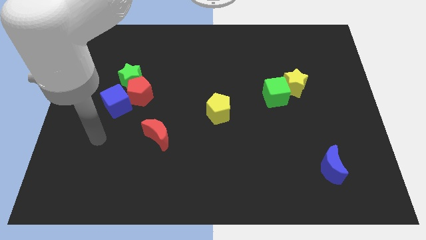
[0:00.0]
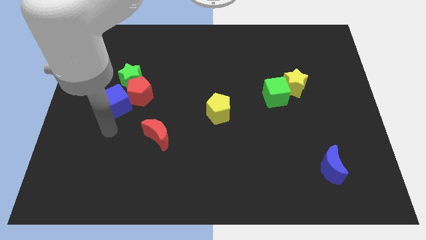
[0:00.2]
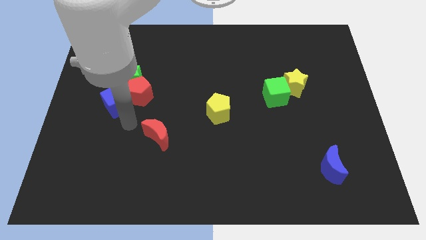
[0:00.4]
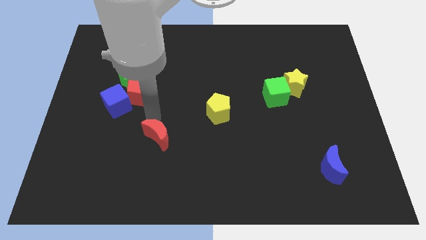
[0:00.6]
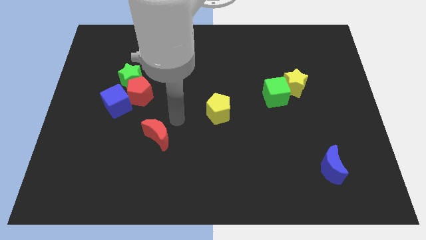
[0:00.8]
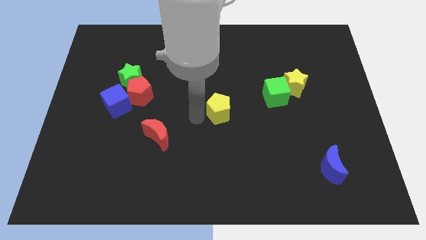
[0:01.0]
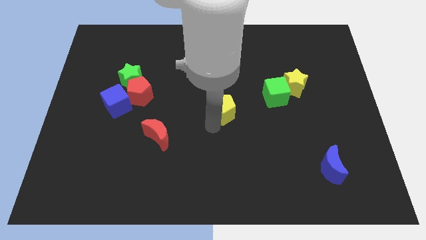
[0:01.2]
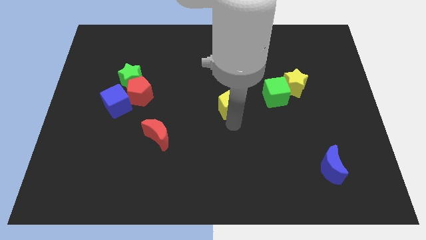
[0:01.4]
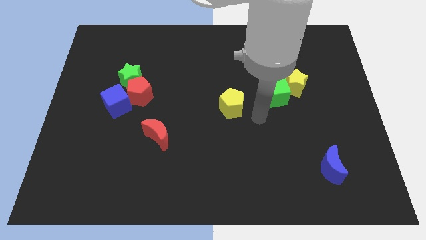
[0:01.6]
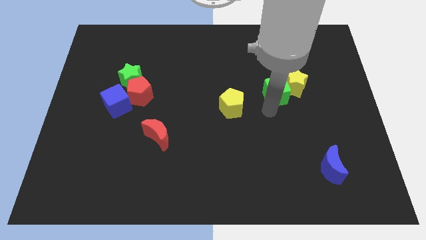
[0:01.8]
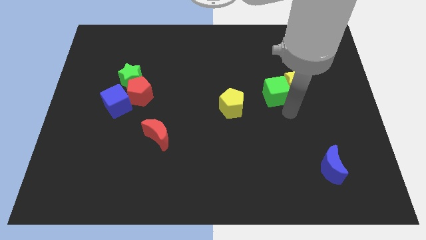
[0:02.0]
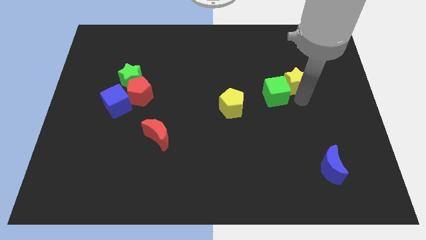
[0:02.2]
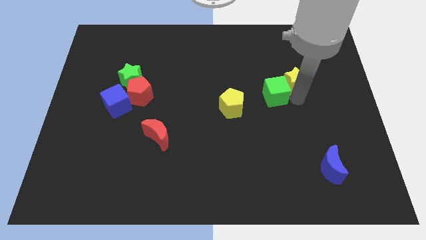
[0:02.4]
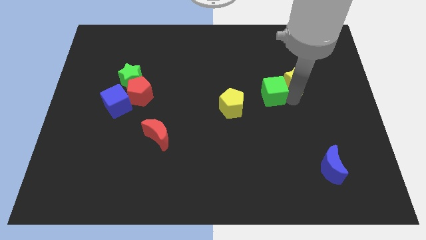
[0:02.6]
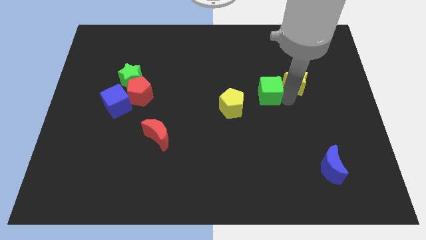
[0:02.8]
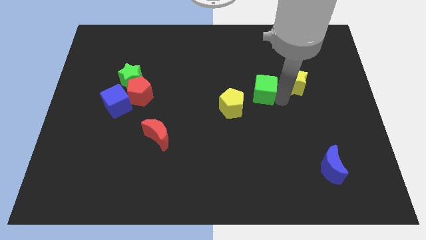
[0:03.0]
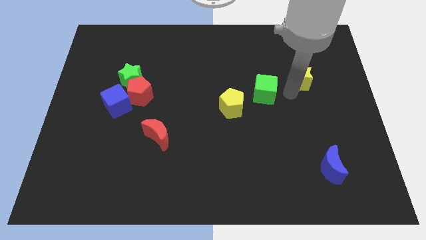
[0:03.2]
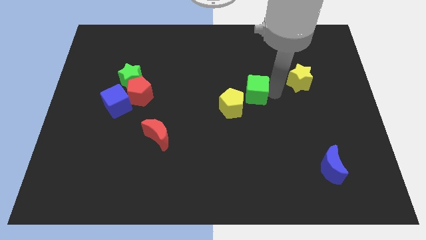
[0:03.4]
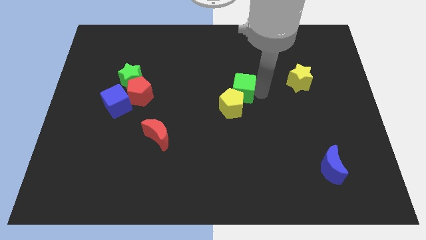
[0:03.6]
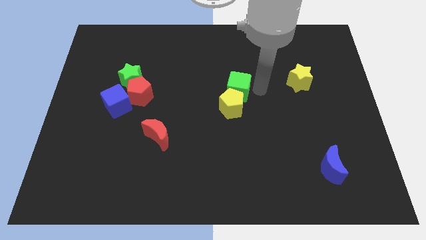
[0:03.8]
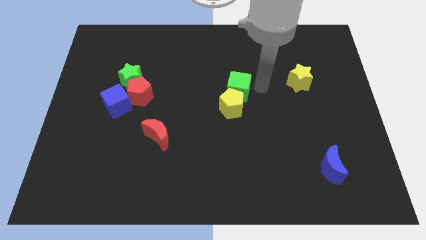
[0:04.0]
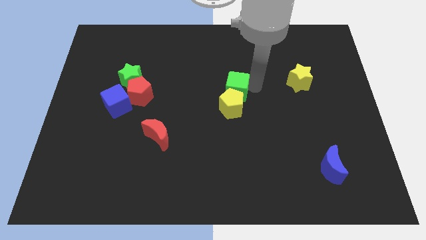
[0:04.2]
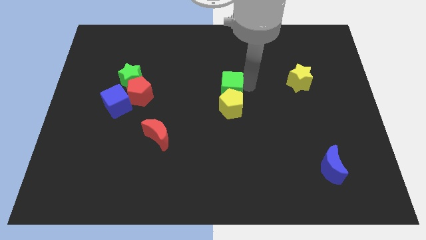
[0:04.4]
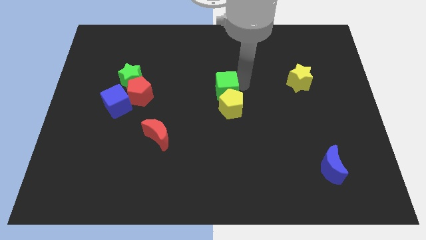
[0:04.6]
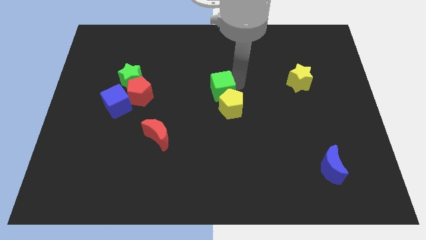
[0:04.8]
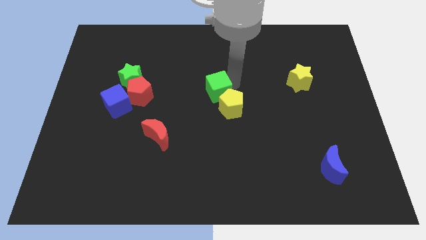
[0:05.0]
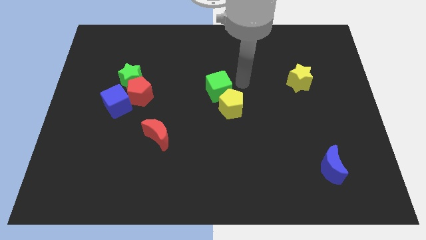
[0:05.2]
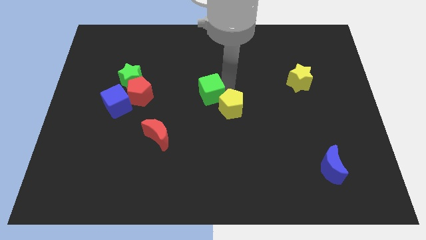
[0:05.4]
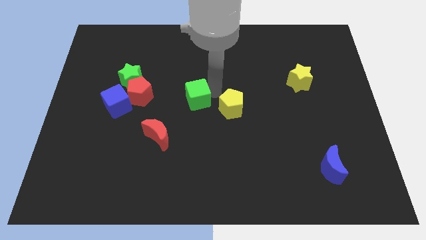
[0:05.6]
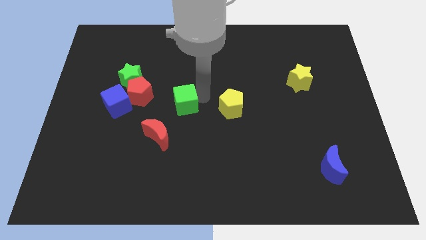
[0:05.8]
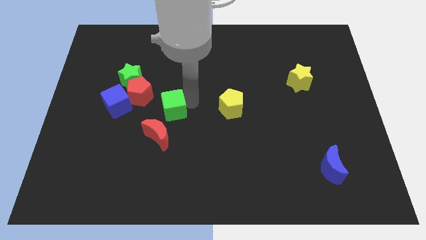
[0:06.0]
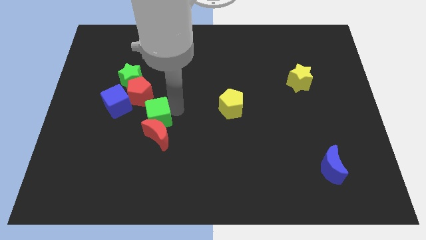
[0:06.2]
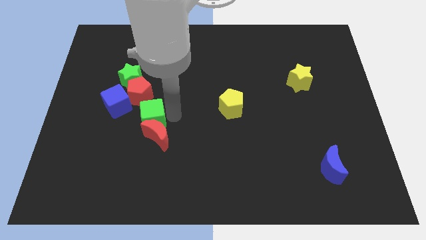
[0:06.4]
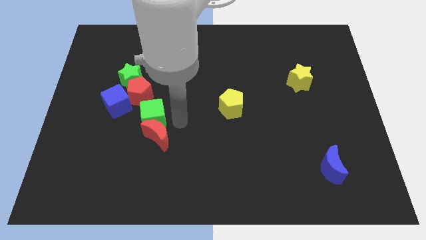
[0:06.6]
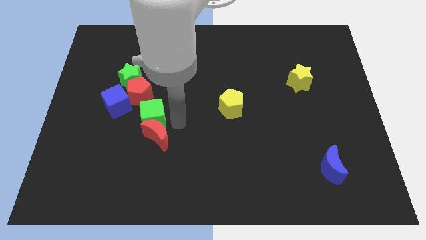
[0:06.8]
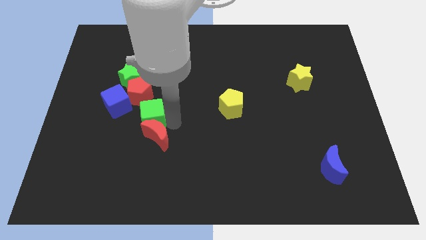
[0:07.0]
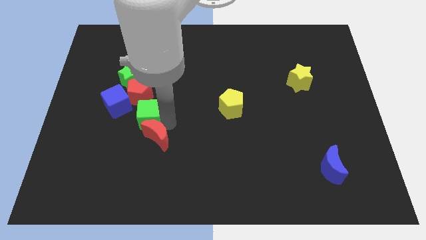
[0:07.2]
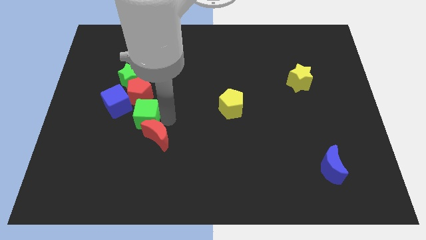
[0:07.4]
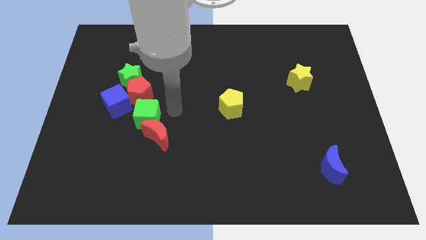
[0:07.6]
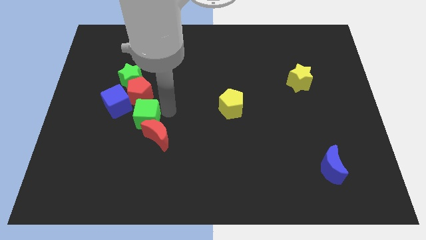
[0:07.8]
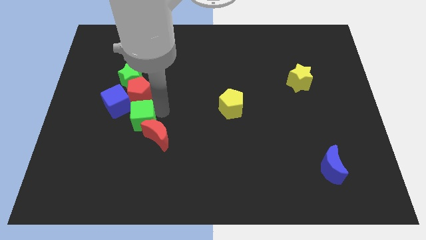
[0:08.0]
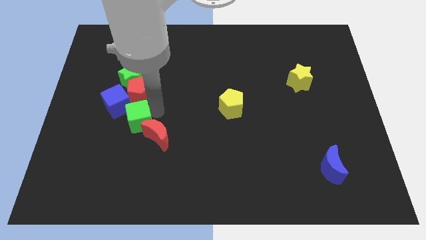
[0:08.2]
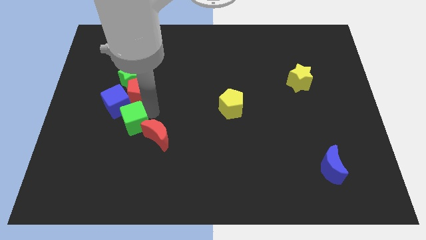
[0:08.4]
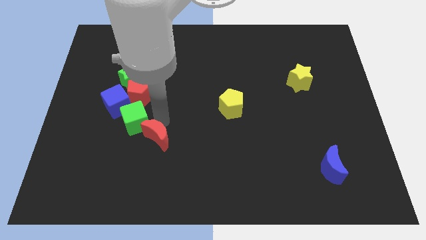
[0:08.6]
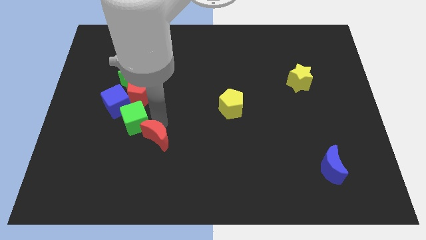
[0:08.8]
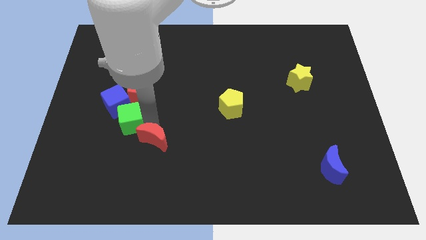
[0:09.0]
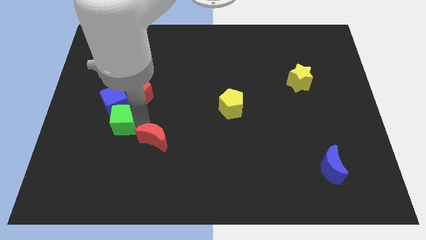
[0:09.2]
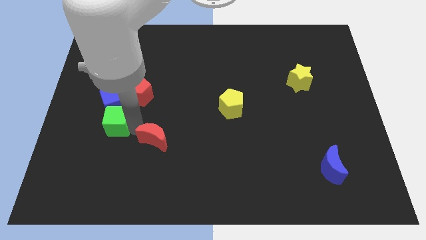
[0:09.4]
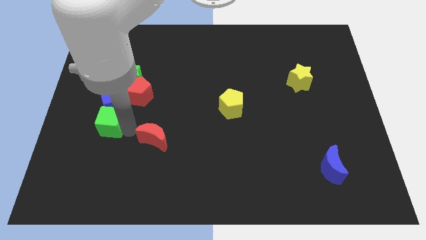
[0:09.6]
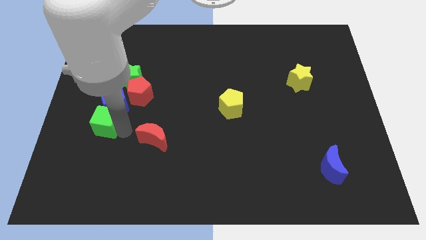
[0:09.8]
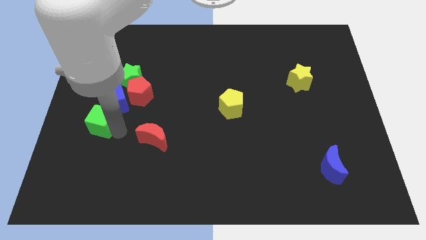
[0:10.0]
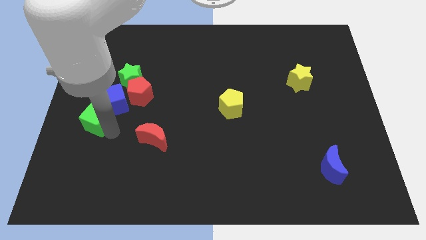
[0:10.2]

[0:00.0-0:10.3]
push the green cube to the left side of the board

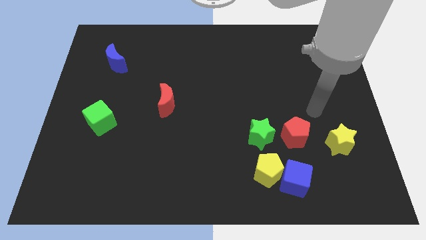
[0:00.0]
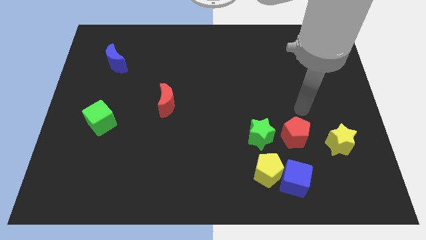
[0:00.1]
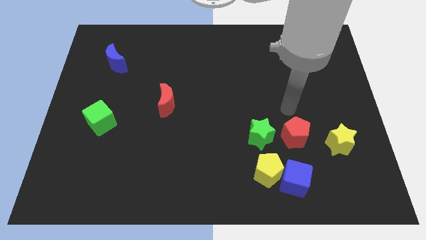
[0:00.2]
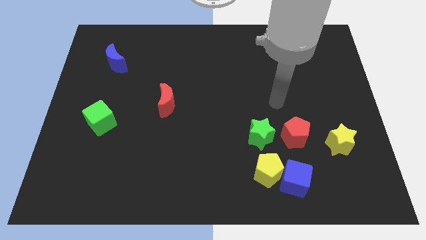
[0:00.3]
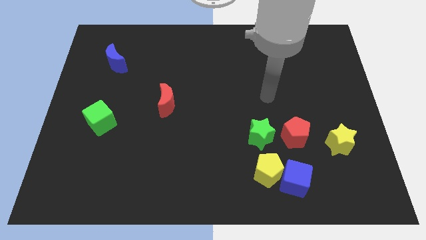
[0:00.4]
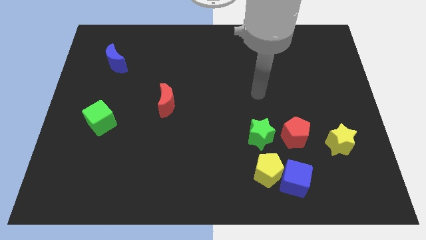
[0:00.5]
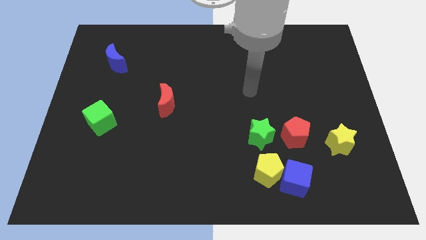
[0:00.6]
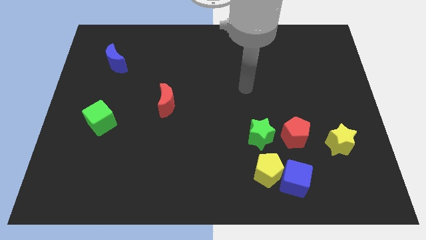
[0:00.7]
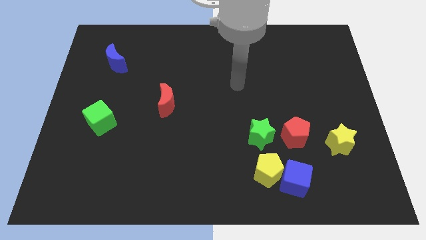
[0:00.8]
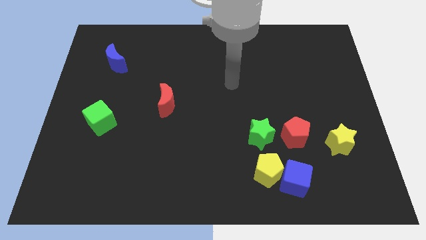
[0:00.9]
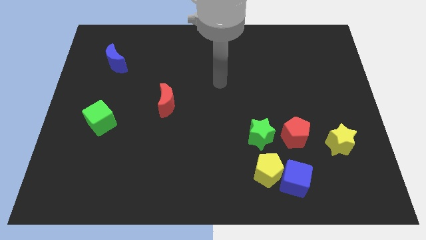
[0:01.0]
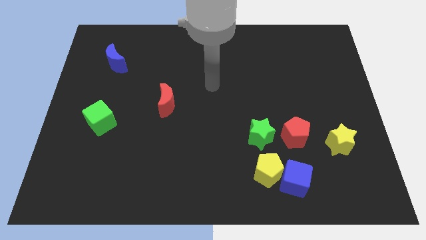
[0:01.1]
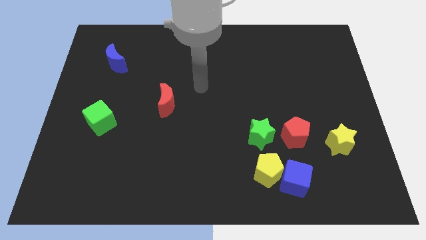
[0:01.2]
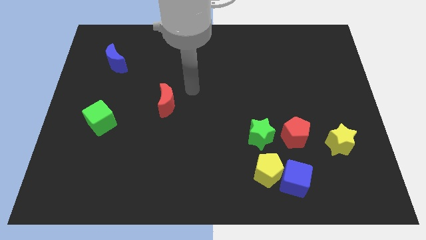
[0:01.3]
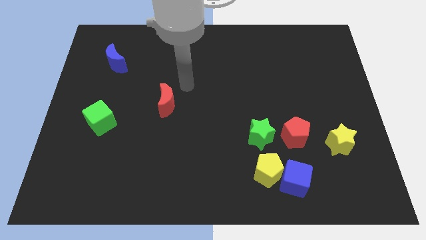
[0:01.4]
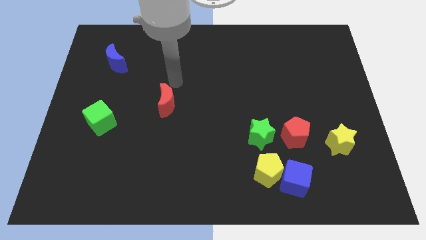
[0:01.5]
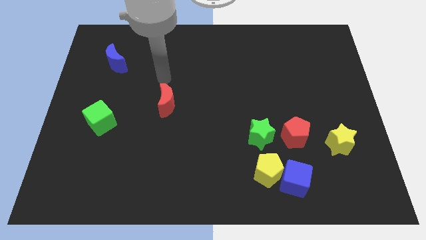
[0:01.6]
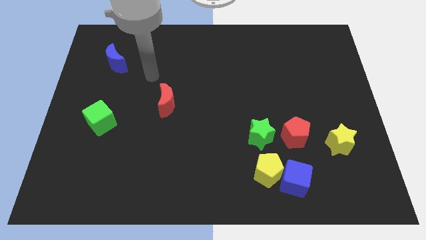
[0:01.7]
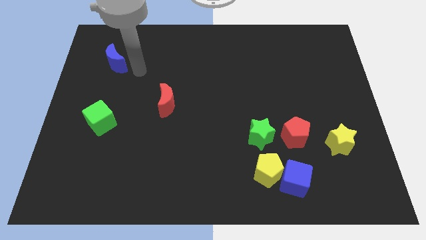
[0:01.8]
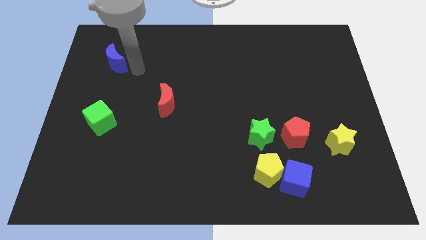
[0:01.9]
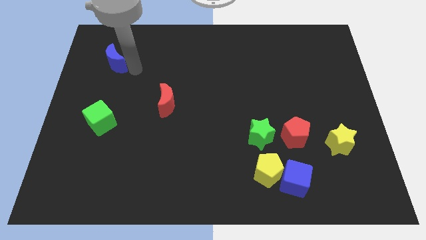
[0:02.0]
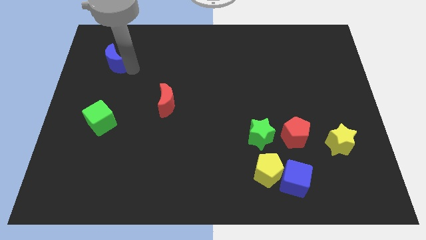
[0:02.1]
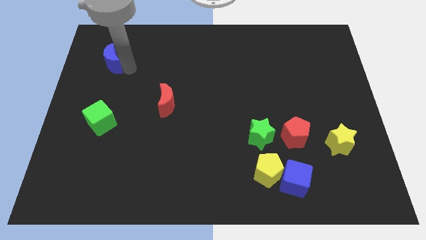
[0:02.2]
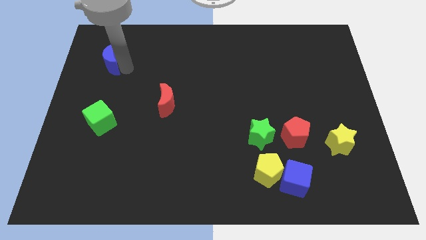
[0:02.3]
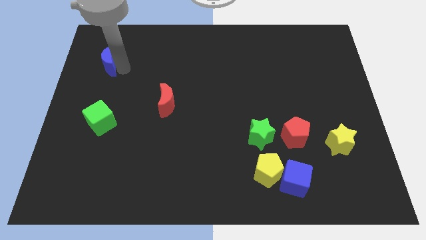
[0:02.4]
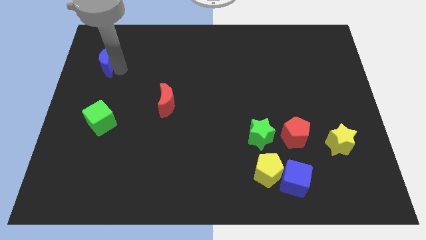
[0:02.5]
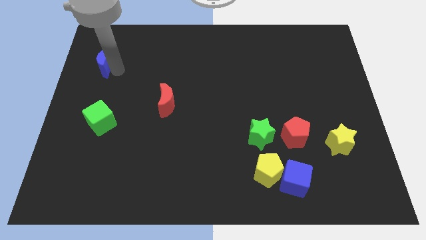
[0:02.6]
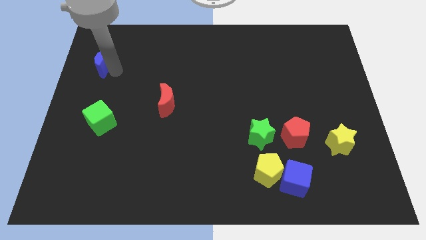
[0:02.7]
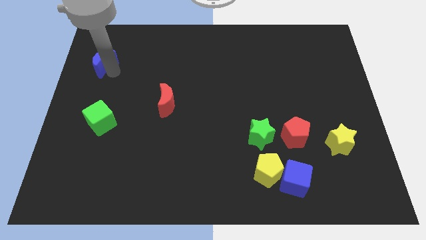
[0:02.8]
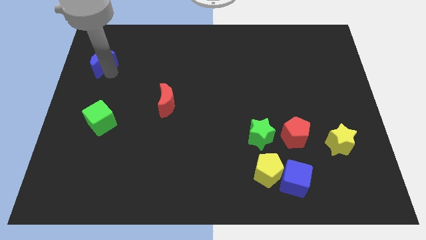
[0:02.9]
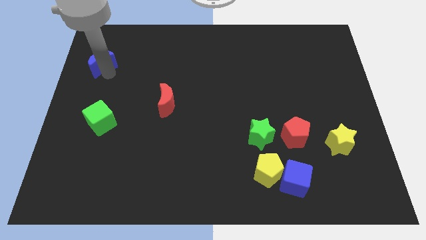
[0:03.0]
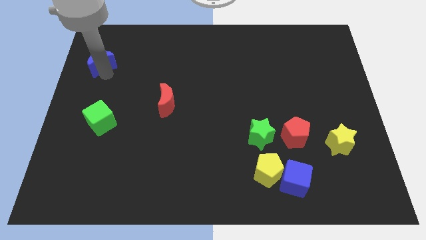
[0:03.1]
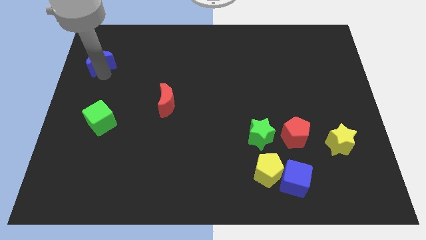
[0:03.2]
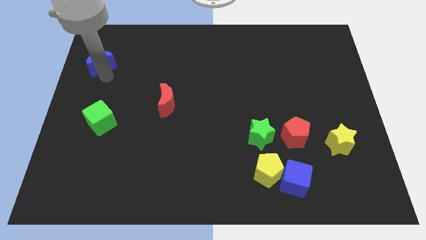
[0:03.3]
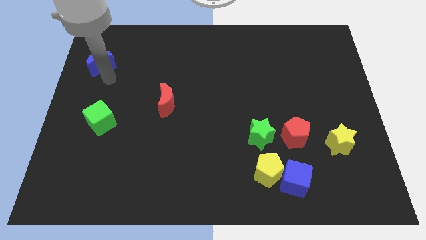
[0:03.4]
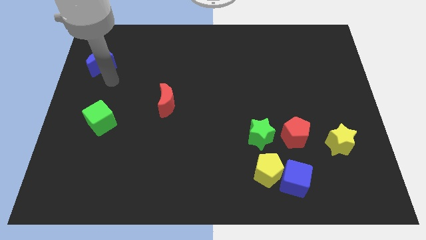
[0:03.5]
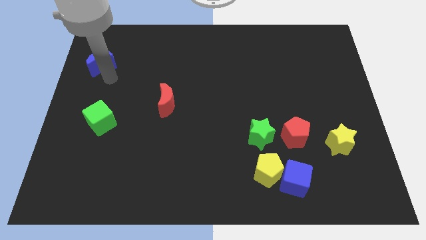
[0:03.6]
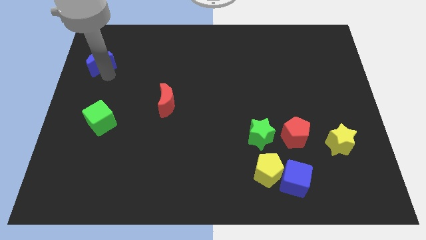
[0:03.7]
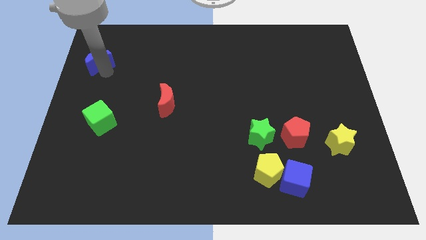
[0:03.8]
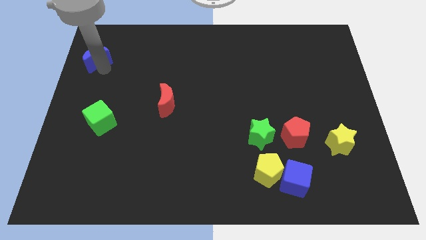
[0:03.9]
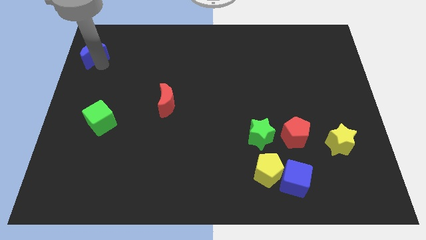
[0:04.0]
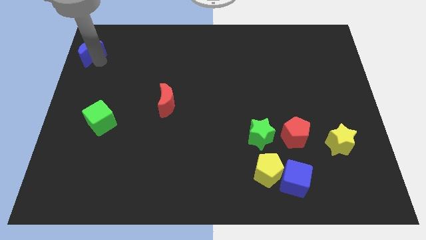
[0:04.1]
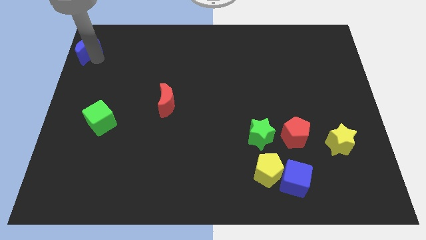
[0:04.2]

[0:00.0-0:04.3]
put the blue moon to the top left
